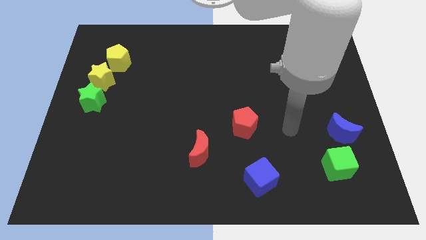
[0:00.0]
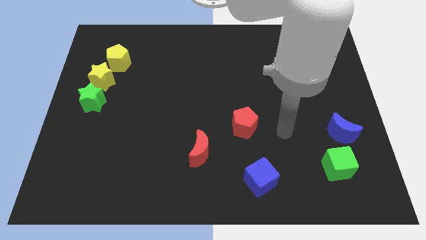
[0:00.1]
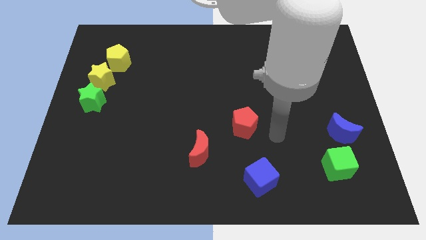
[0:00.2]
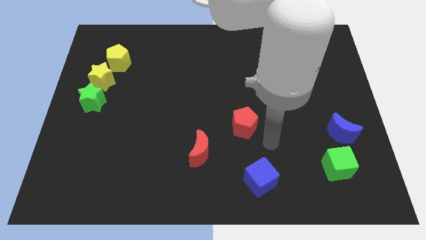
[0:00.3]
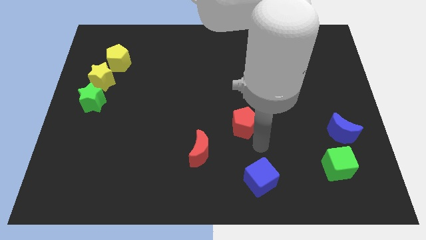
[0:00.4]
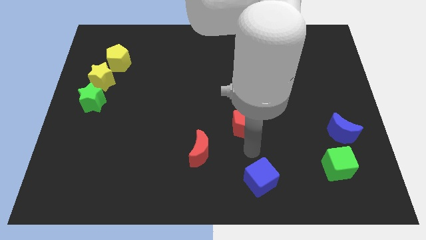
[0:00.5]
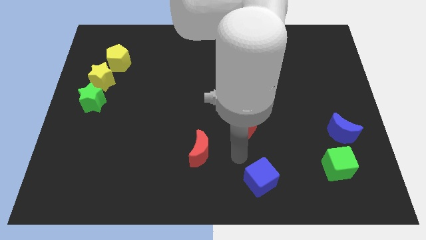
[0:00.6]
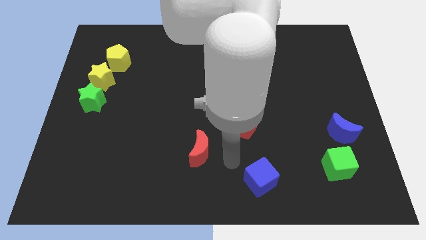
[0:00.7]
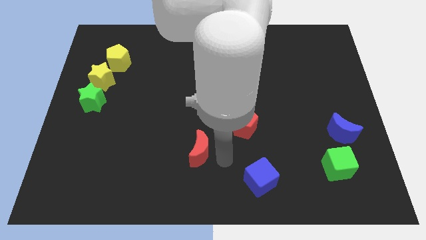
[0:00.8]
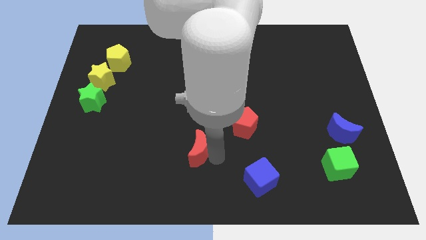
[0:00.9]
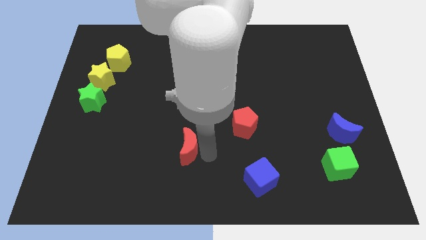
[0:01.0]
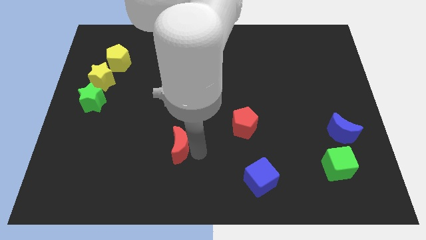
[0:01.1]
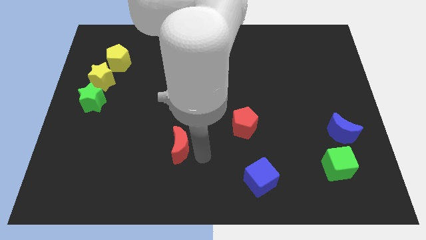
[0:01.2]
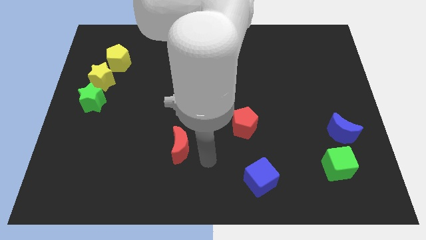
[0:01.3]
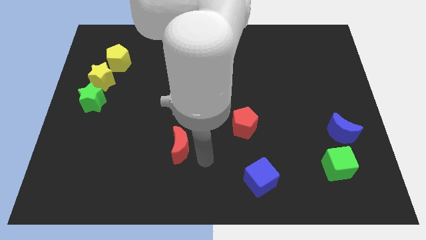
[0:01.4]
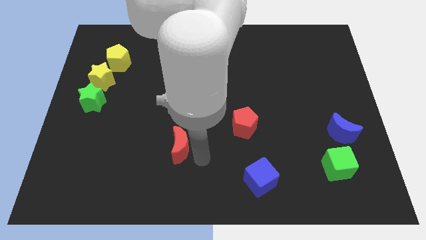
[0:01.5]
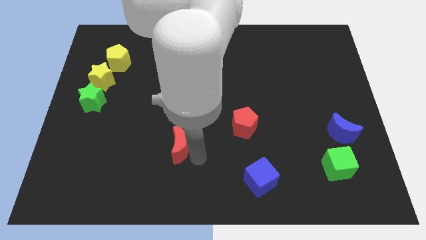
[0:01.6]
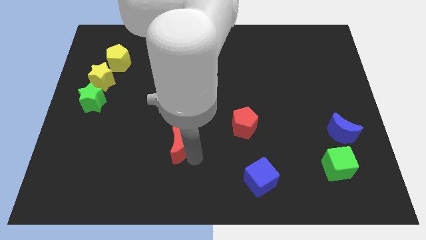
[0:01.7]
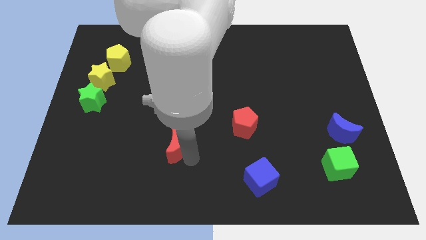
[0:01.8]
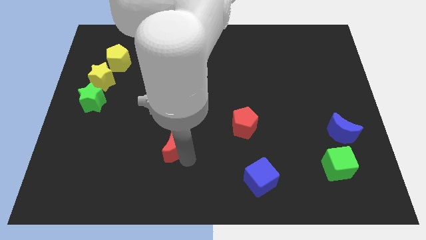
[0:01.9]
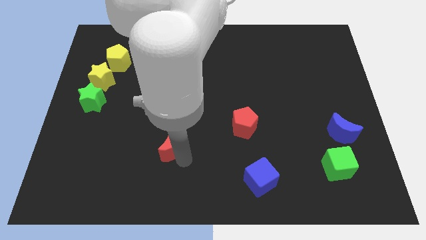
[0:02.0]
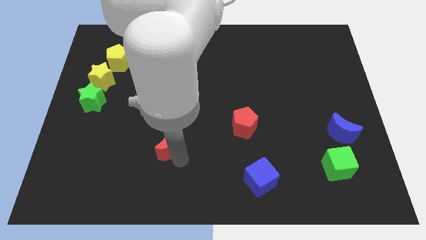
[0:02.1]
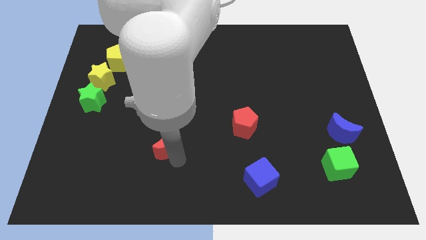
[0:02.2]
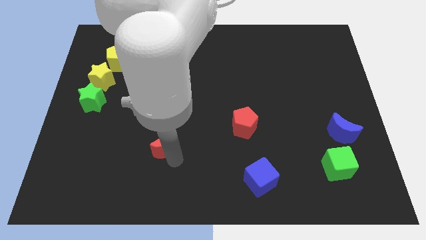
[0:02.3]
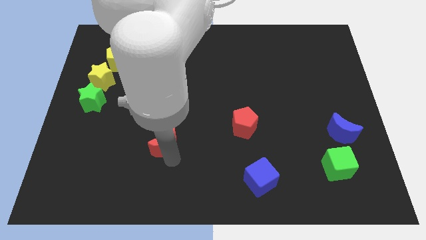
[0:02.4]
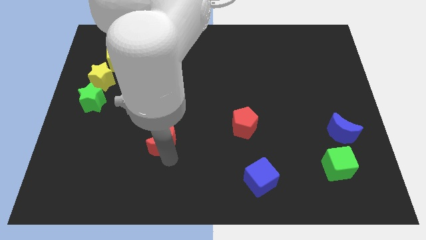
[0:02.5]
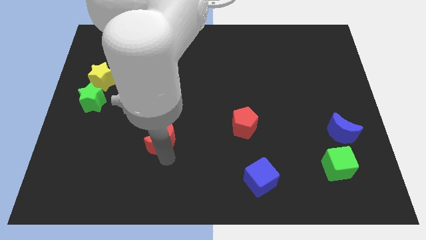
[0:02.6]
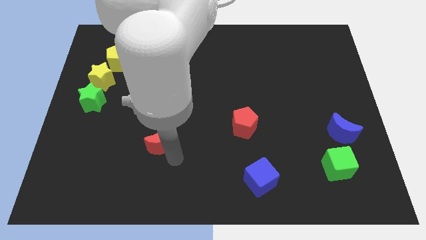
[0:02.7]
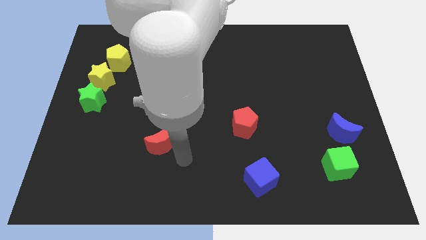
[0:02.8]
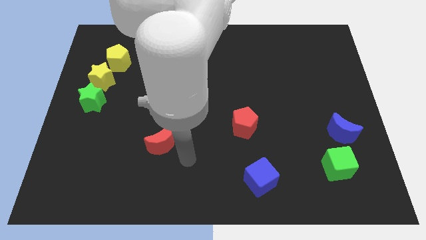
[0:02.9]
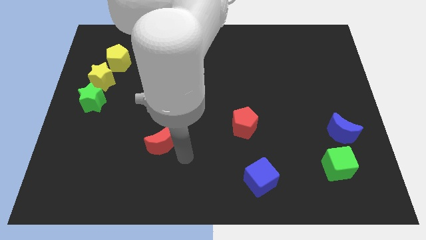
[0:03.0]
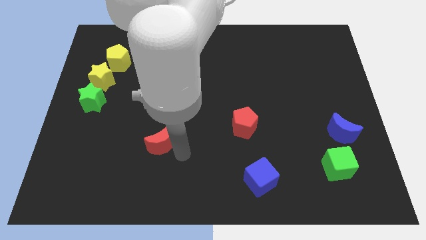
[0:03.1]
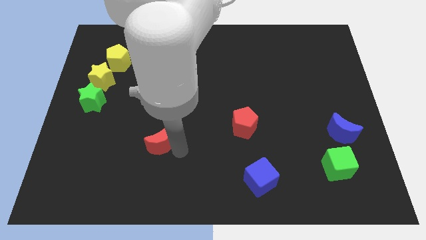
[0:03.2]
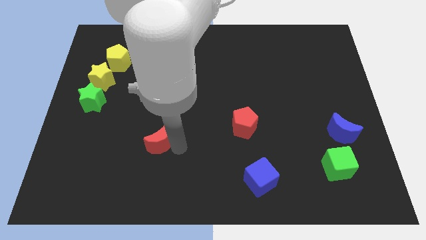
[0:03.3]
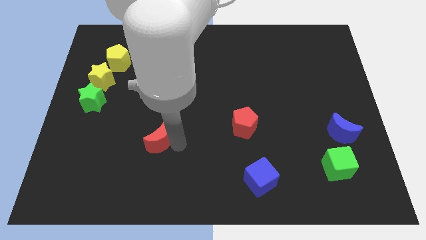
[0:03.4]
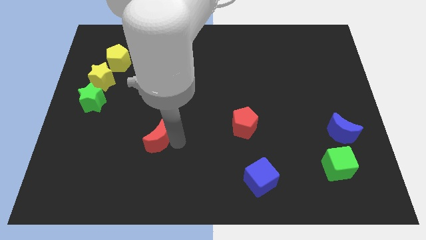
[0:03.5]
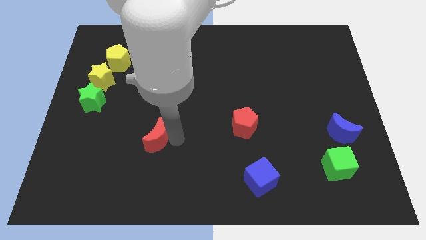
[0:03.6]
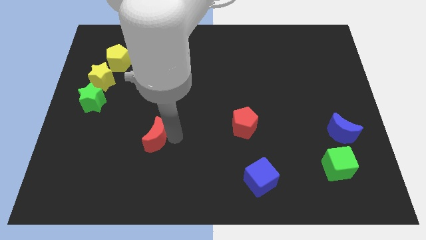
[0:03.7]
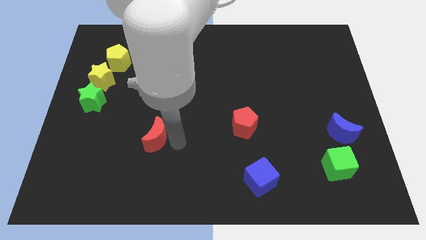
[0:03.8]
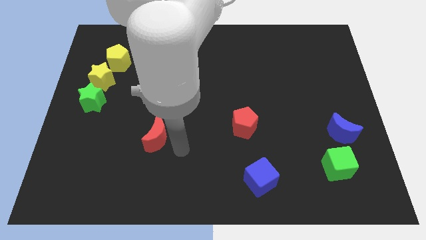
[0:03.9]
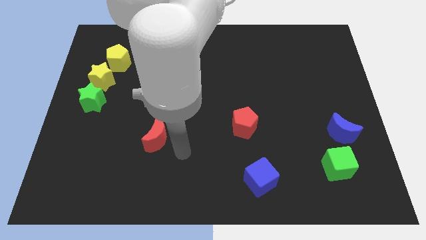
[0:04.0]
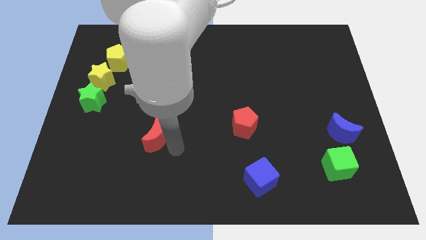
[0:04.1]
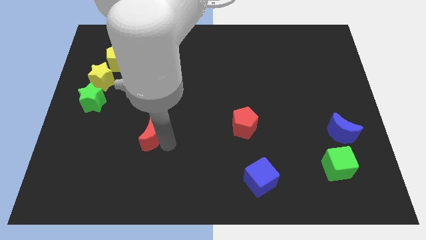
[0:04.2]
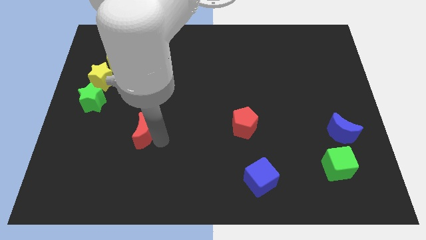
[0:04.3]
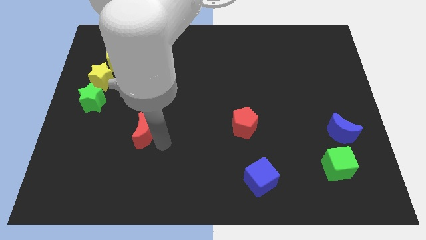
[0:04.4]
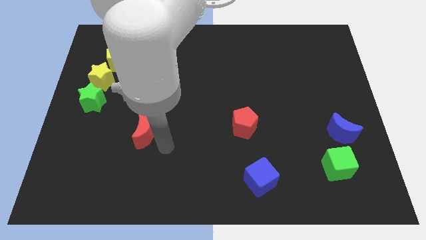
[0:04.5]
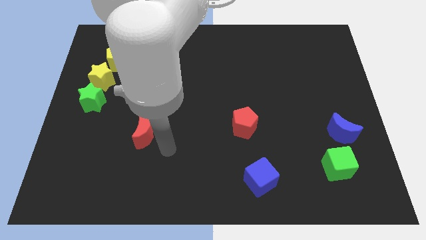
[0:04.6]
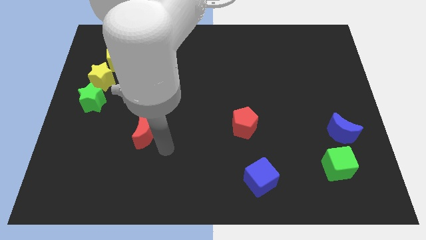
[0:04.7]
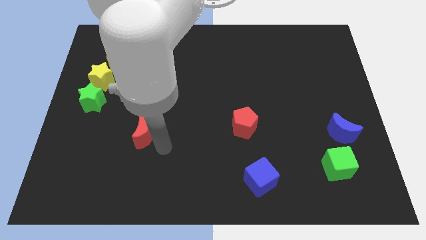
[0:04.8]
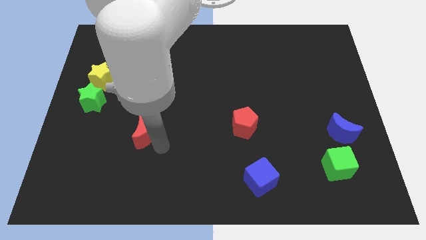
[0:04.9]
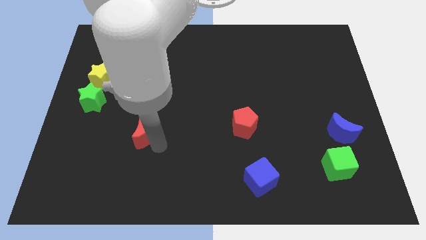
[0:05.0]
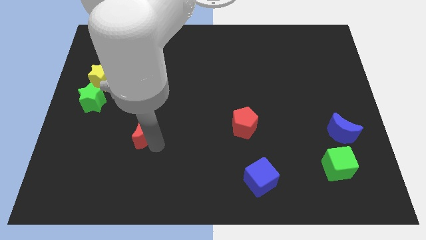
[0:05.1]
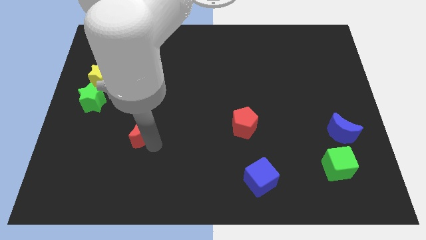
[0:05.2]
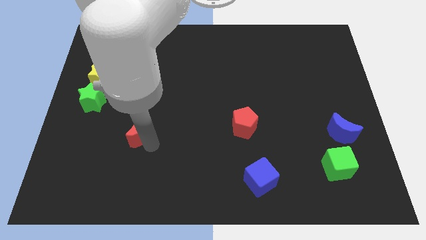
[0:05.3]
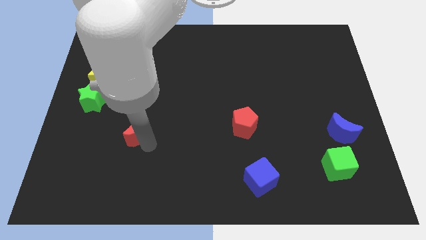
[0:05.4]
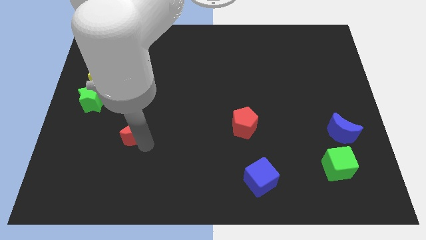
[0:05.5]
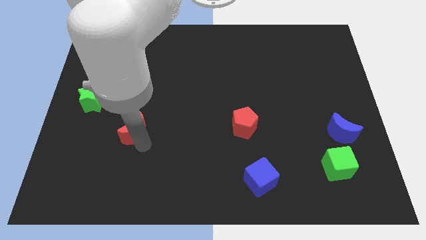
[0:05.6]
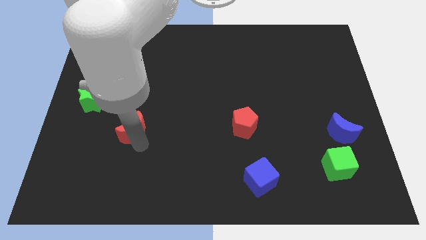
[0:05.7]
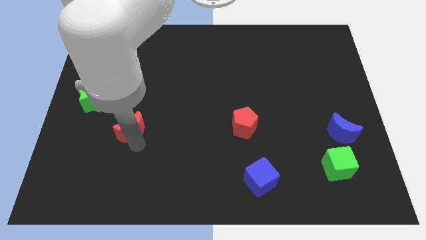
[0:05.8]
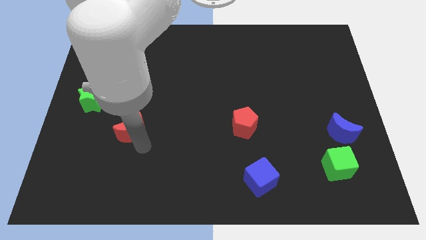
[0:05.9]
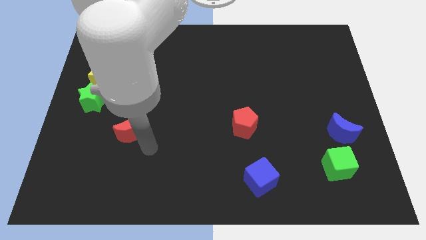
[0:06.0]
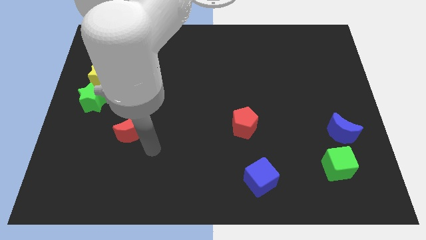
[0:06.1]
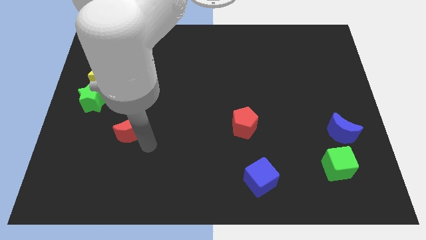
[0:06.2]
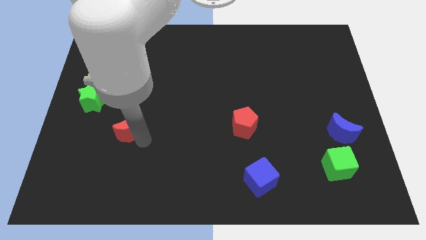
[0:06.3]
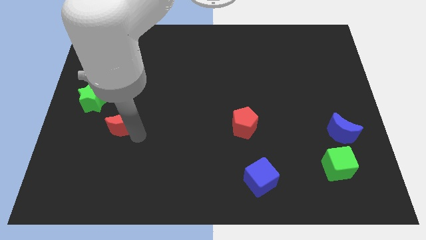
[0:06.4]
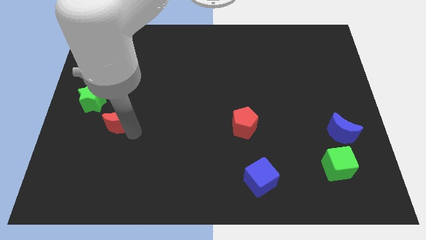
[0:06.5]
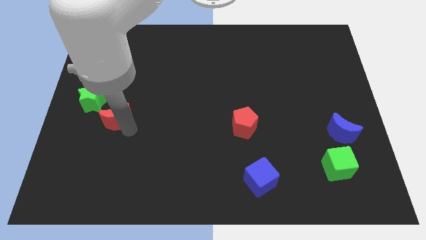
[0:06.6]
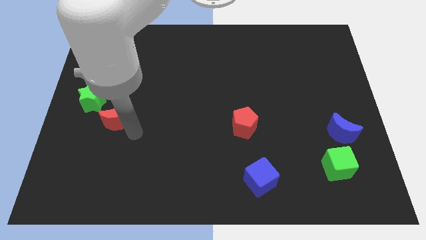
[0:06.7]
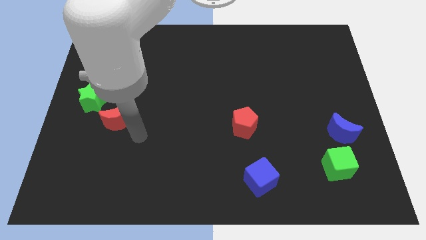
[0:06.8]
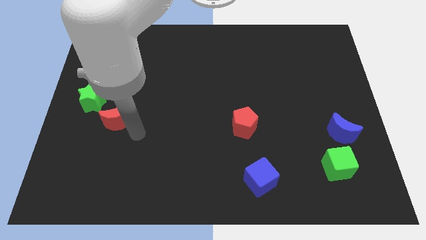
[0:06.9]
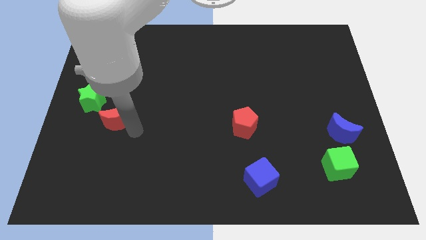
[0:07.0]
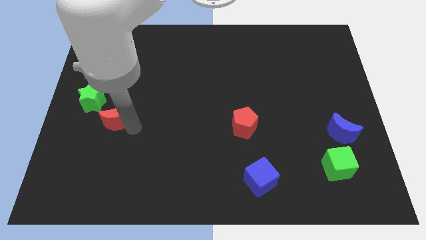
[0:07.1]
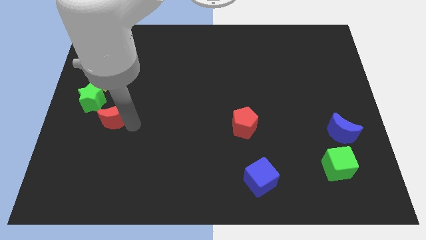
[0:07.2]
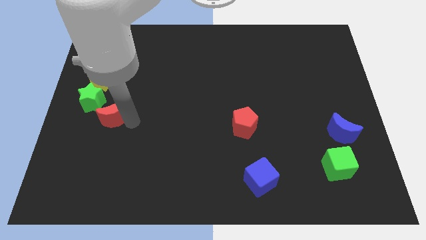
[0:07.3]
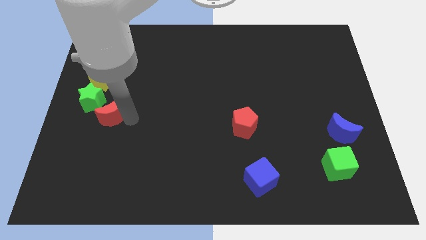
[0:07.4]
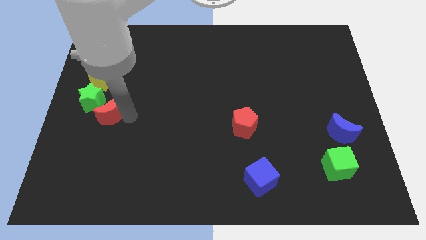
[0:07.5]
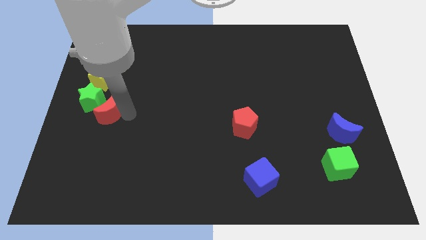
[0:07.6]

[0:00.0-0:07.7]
move the red moon to the green star

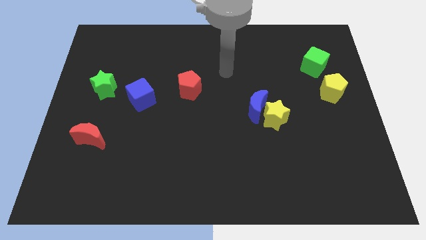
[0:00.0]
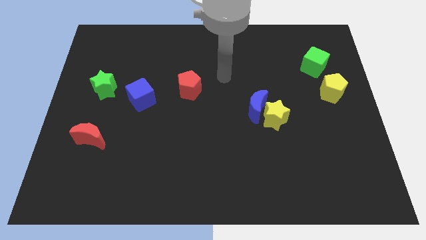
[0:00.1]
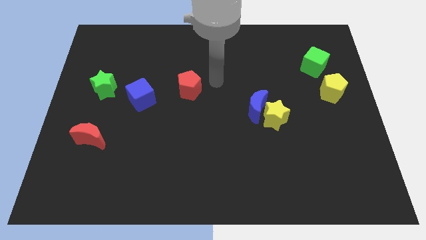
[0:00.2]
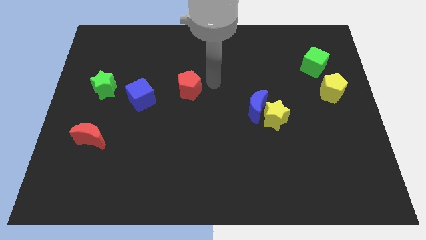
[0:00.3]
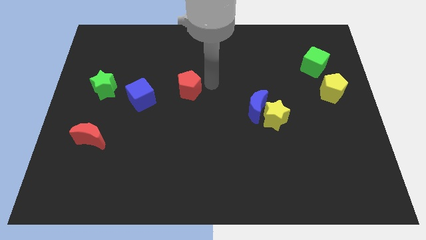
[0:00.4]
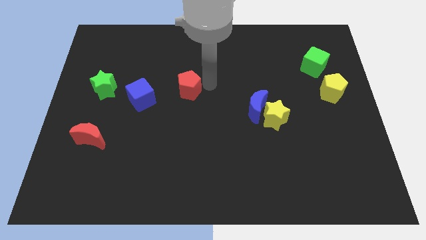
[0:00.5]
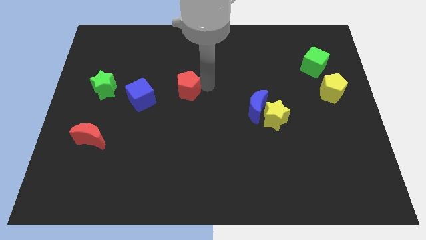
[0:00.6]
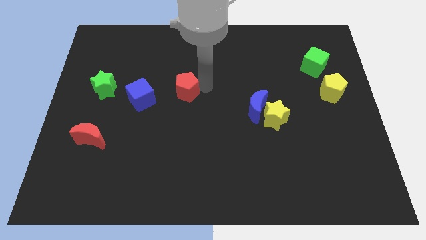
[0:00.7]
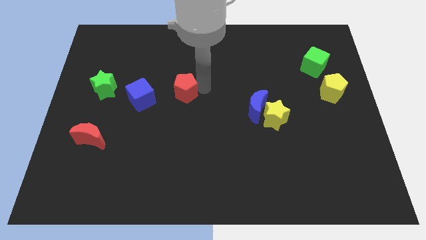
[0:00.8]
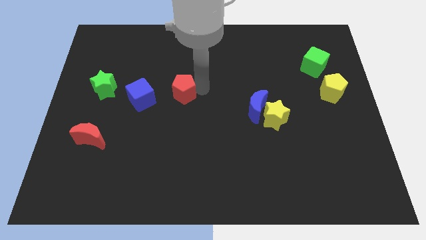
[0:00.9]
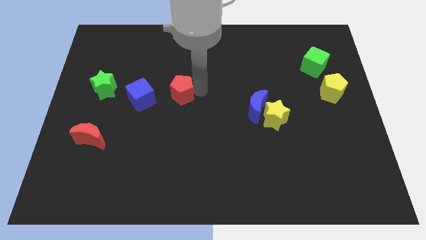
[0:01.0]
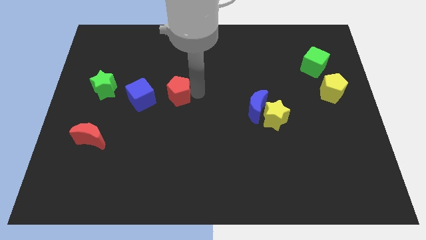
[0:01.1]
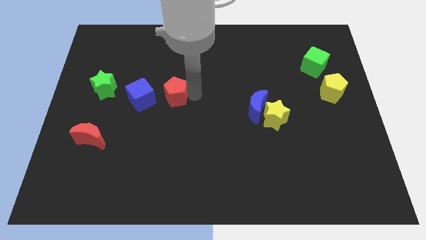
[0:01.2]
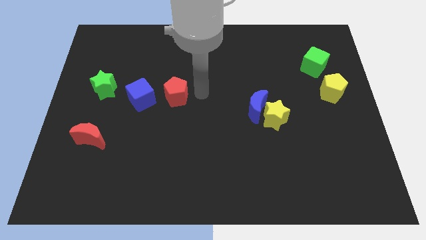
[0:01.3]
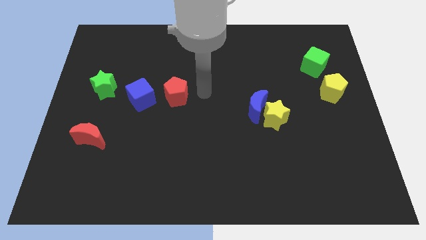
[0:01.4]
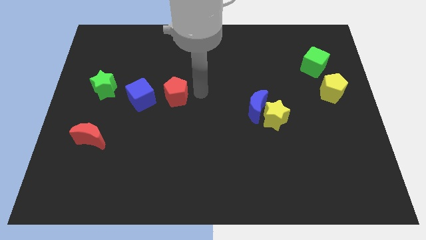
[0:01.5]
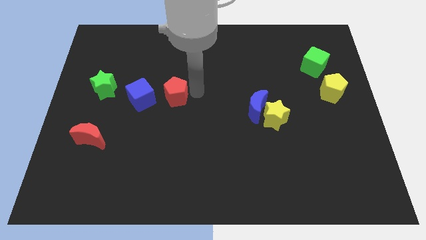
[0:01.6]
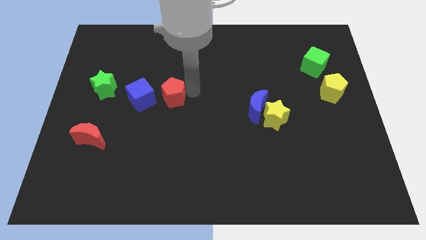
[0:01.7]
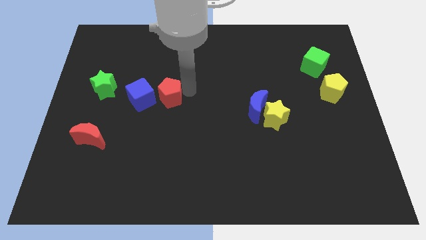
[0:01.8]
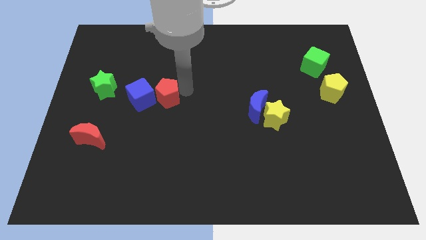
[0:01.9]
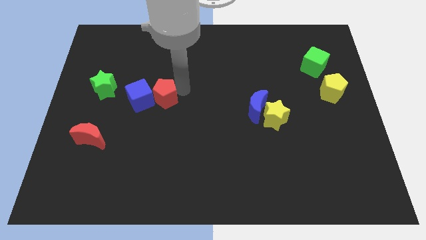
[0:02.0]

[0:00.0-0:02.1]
slide the red pentagon next to the blue cube
